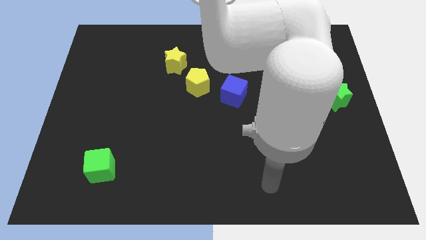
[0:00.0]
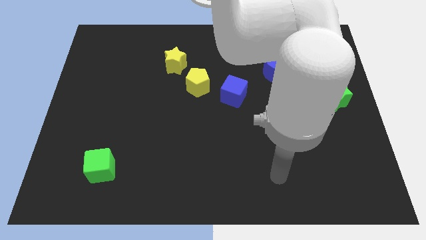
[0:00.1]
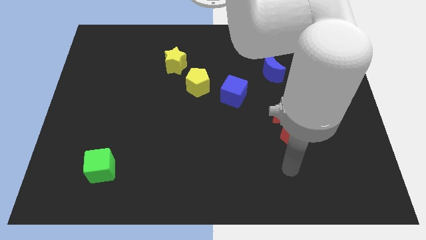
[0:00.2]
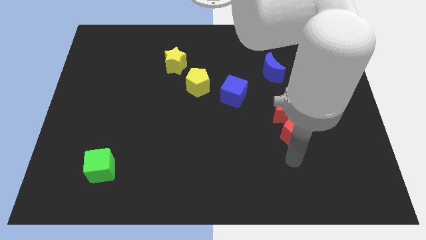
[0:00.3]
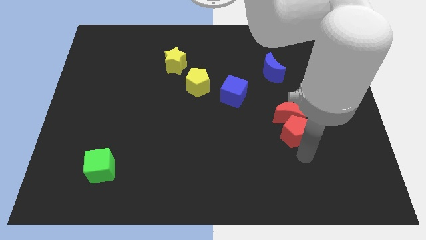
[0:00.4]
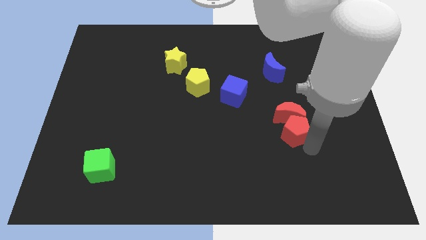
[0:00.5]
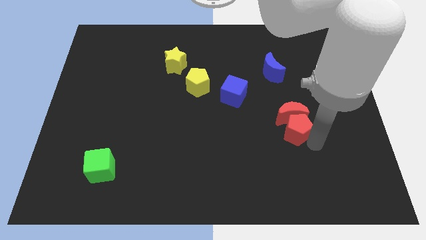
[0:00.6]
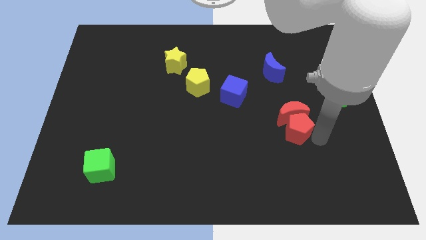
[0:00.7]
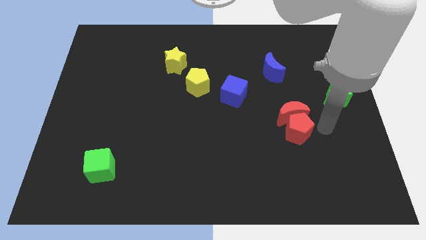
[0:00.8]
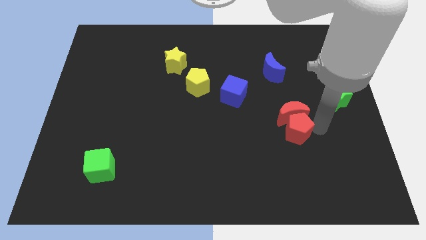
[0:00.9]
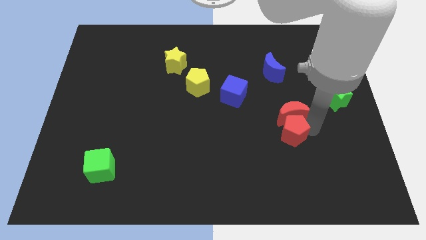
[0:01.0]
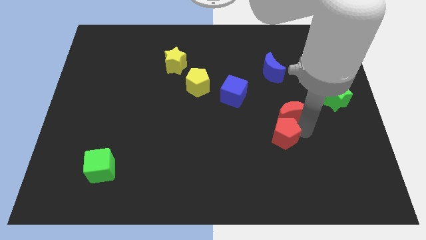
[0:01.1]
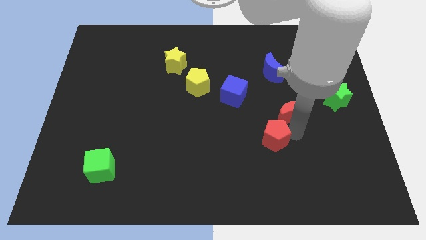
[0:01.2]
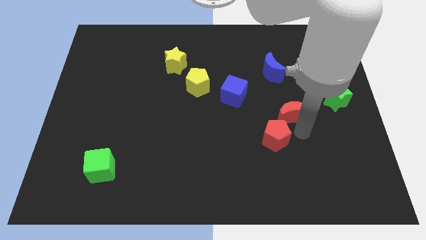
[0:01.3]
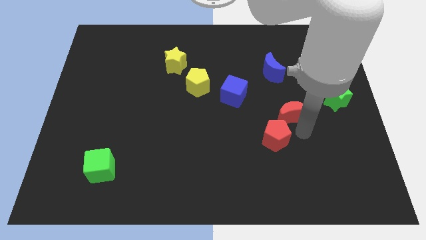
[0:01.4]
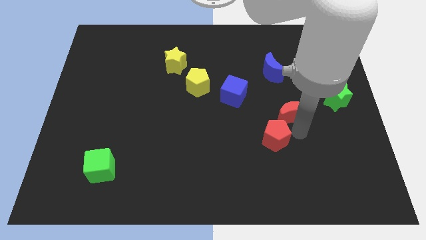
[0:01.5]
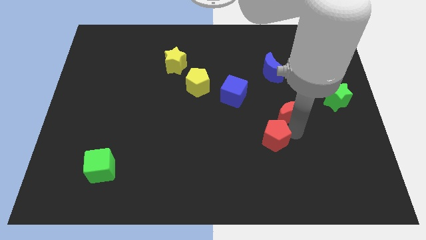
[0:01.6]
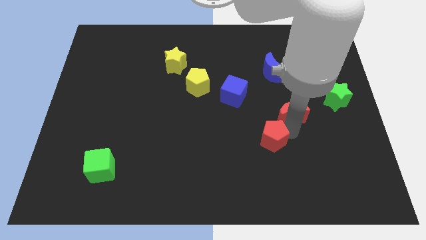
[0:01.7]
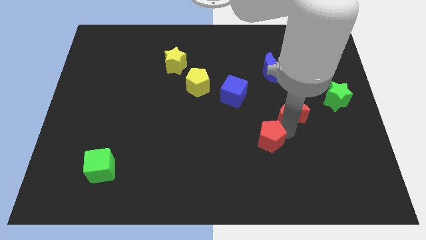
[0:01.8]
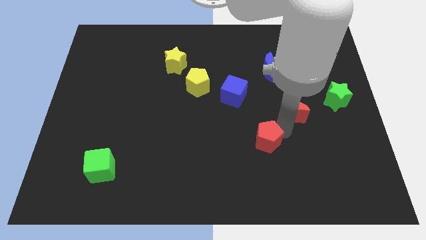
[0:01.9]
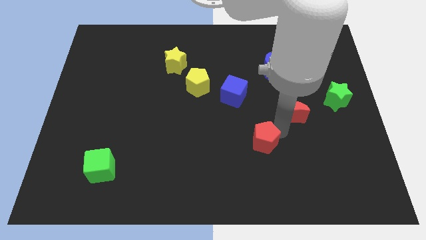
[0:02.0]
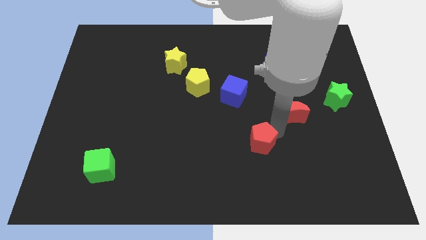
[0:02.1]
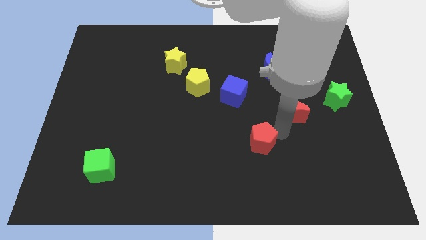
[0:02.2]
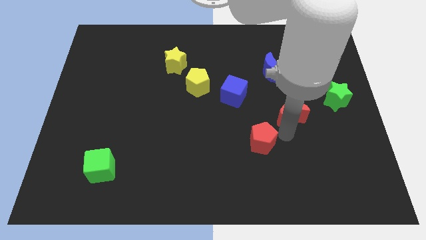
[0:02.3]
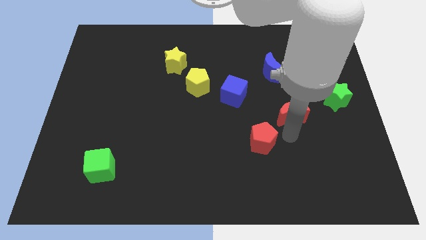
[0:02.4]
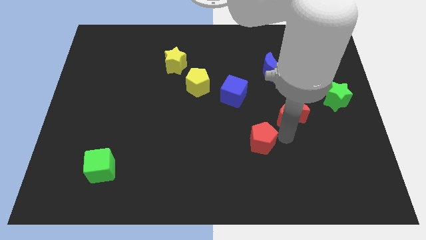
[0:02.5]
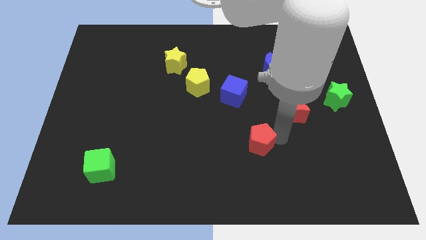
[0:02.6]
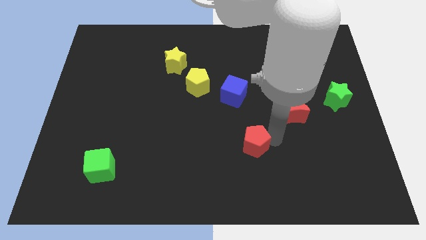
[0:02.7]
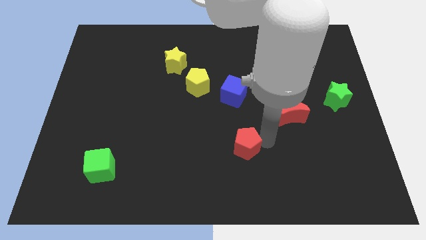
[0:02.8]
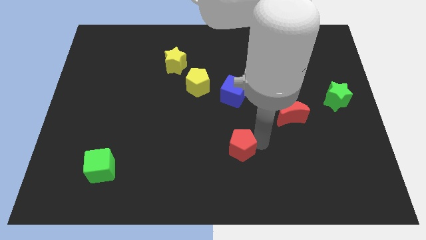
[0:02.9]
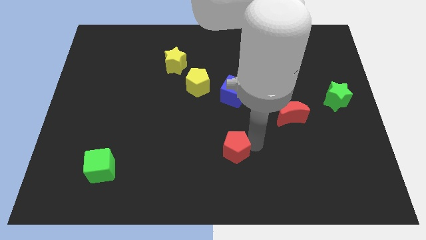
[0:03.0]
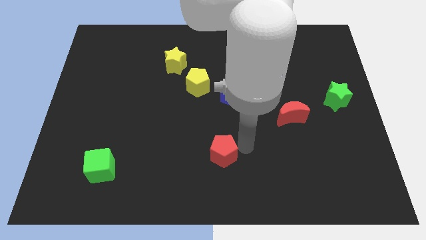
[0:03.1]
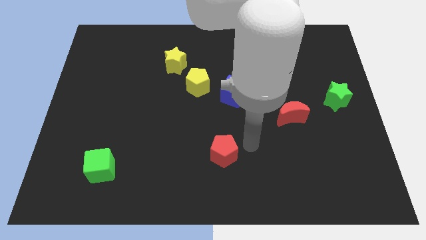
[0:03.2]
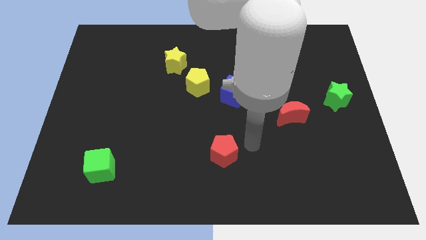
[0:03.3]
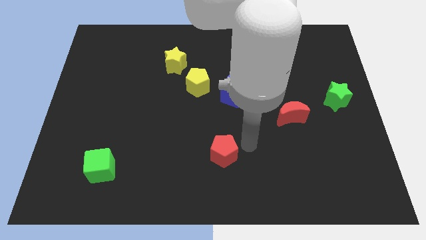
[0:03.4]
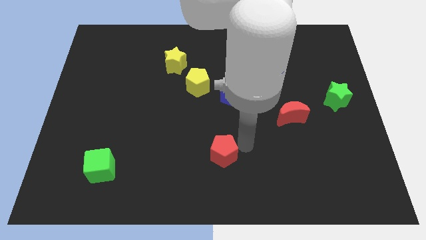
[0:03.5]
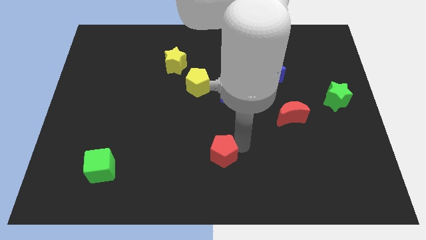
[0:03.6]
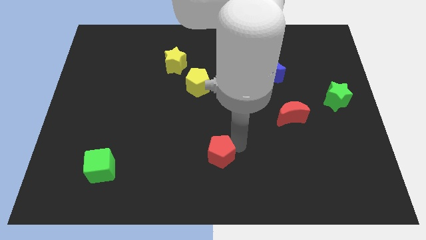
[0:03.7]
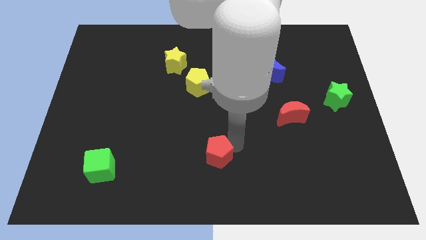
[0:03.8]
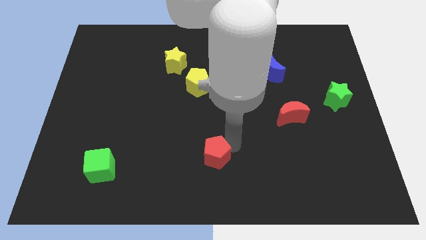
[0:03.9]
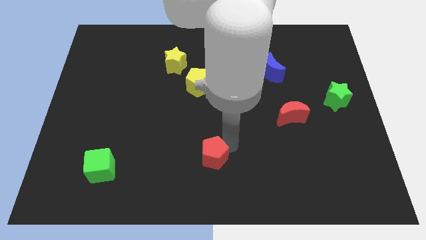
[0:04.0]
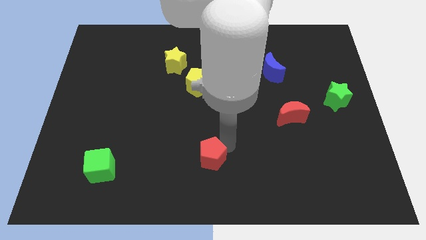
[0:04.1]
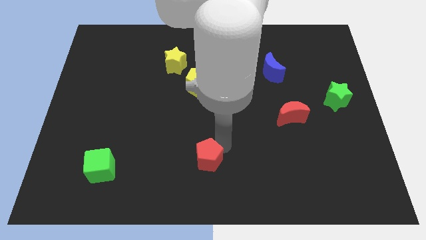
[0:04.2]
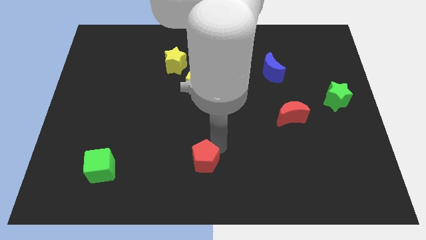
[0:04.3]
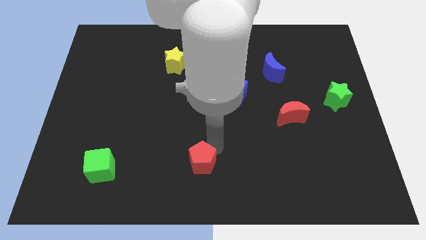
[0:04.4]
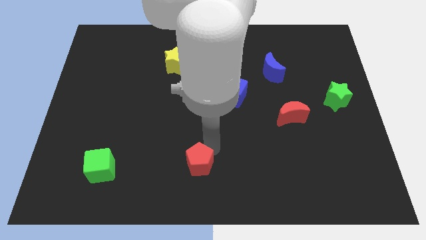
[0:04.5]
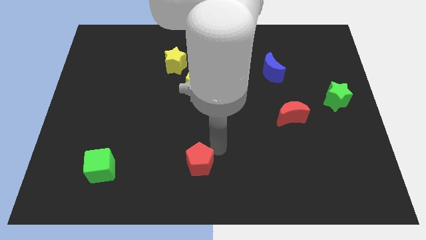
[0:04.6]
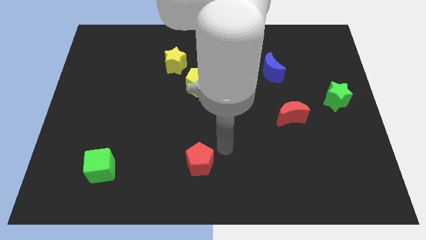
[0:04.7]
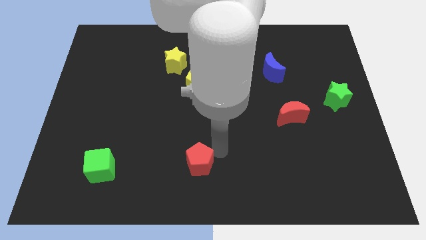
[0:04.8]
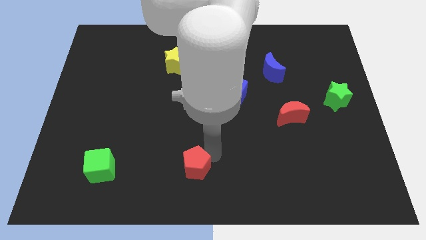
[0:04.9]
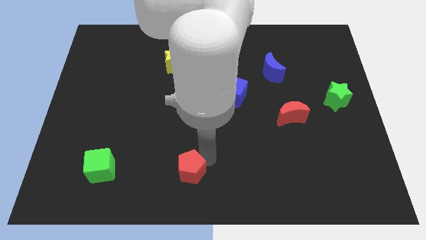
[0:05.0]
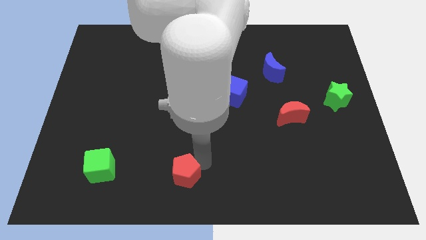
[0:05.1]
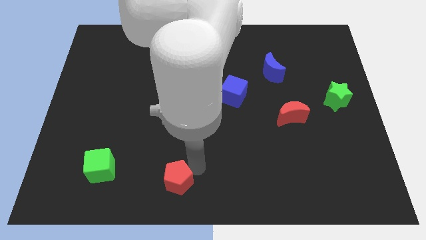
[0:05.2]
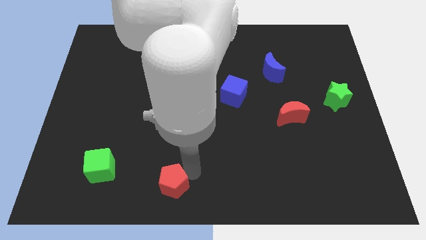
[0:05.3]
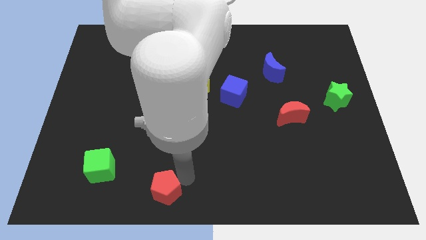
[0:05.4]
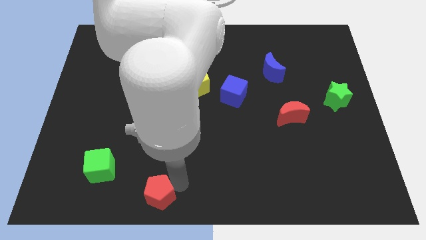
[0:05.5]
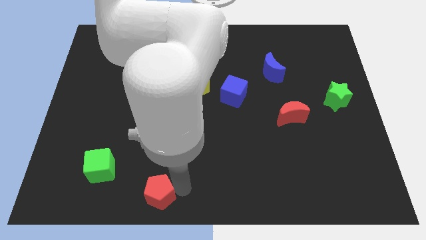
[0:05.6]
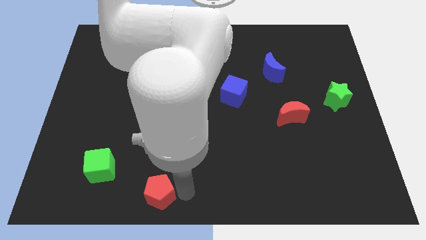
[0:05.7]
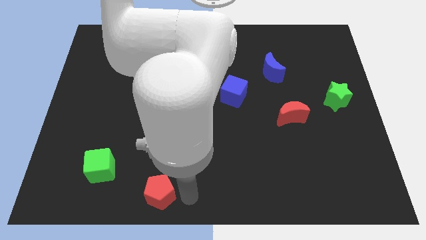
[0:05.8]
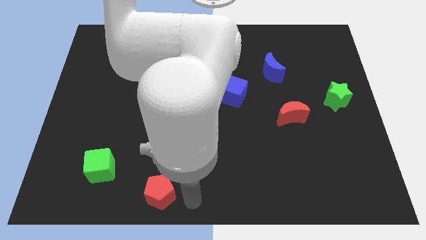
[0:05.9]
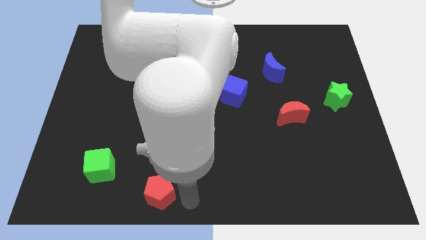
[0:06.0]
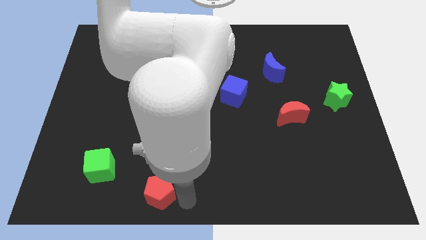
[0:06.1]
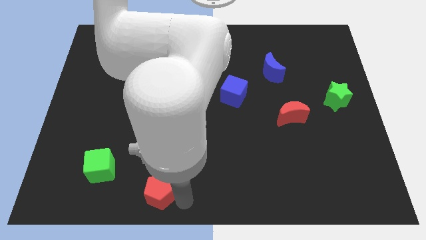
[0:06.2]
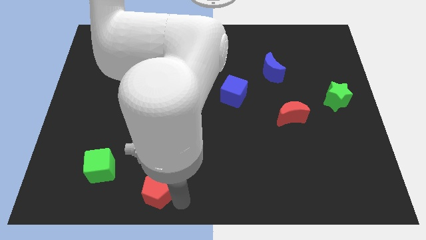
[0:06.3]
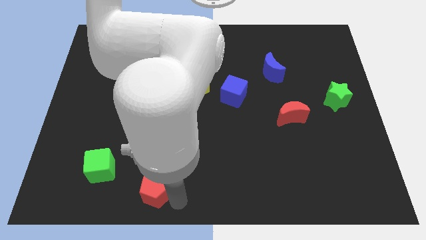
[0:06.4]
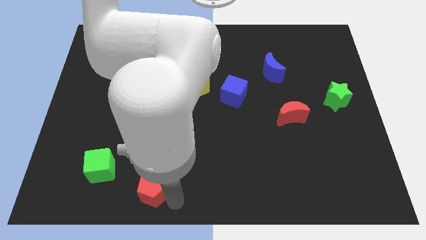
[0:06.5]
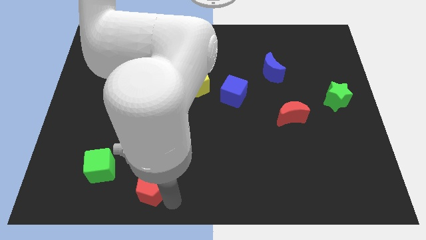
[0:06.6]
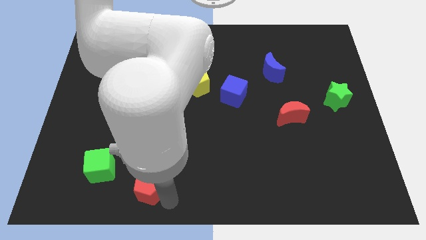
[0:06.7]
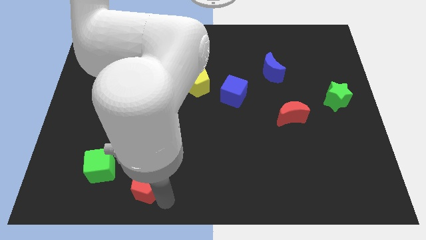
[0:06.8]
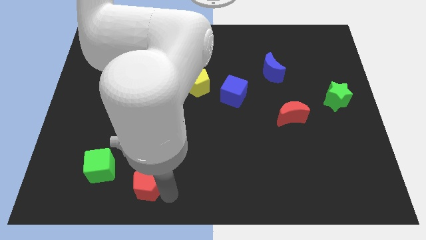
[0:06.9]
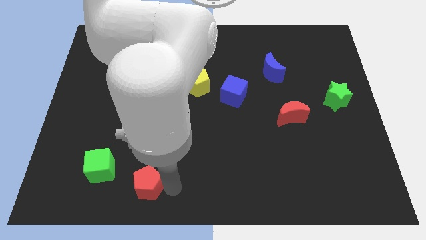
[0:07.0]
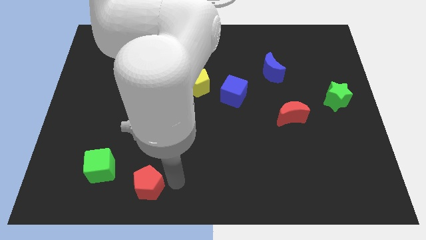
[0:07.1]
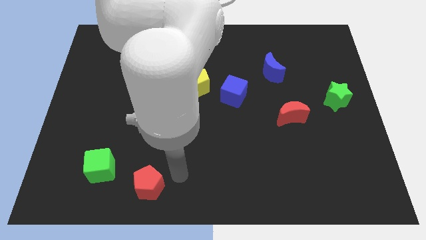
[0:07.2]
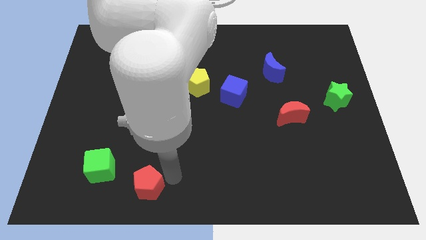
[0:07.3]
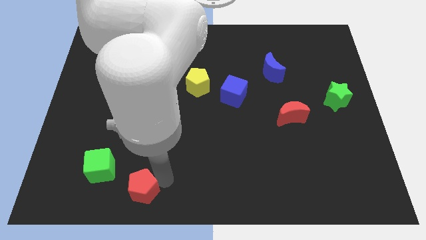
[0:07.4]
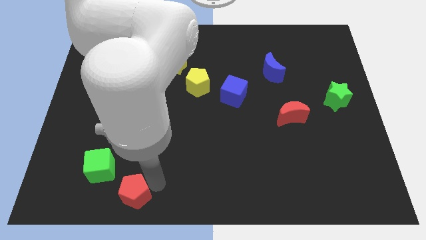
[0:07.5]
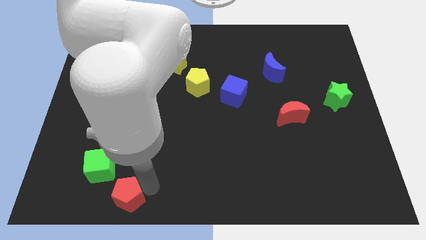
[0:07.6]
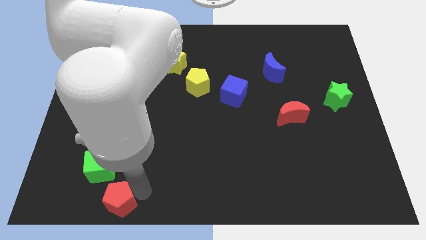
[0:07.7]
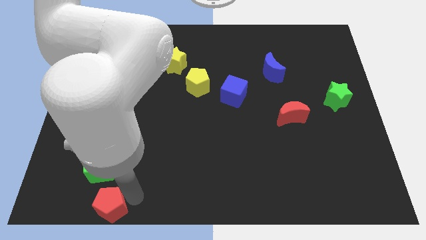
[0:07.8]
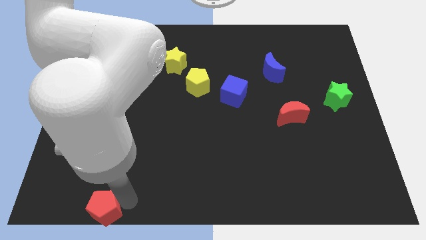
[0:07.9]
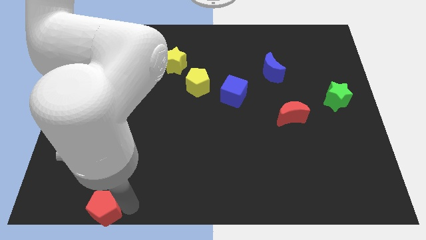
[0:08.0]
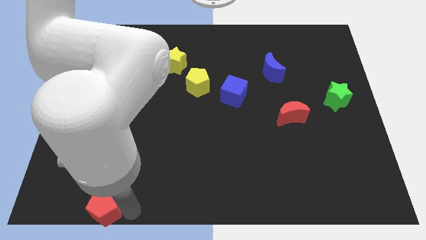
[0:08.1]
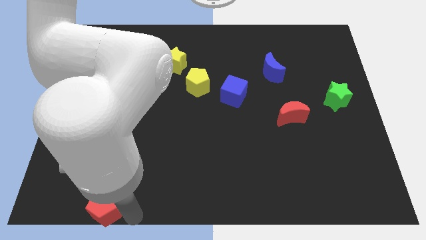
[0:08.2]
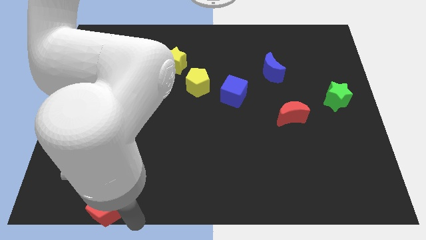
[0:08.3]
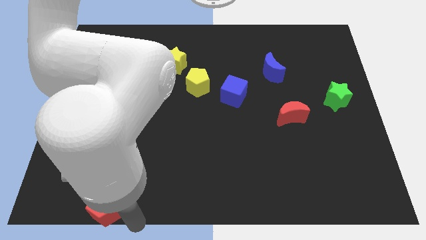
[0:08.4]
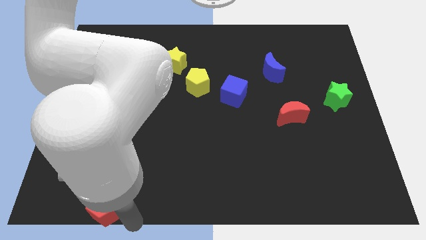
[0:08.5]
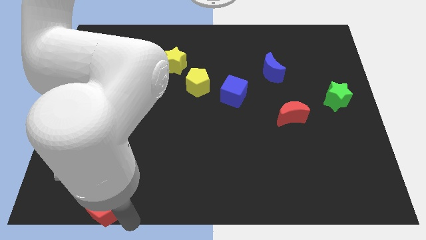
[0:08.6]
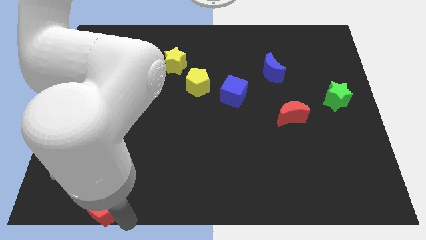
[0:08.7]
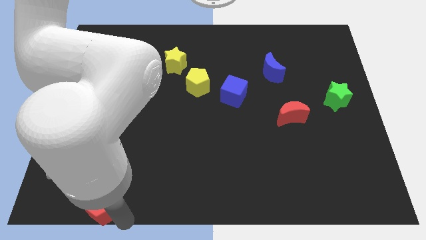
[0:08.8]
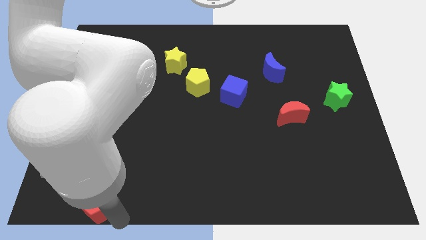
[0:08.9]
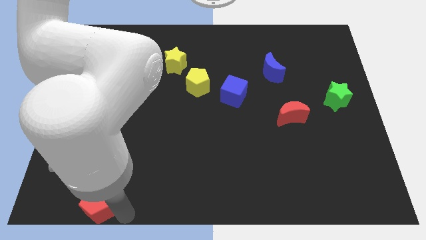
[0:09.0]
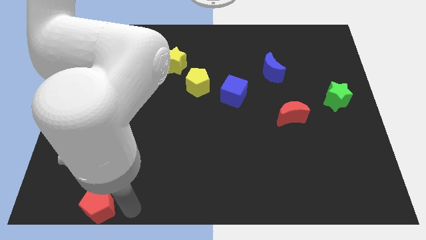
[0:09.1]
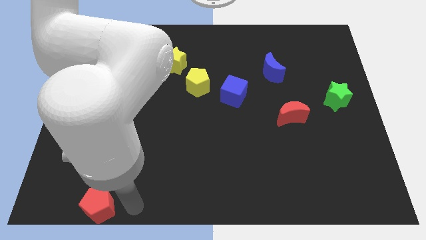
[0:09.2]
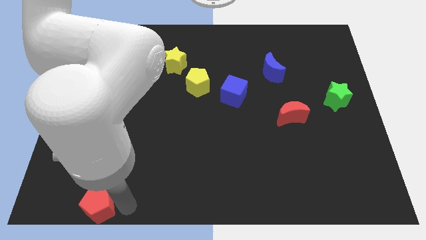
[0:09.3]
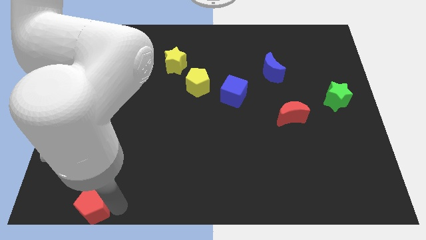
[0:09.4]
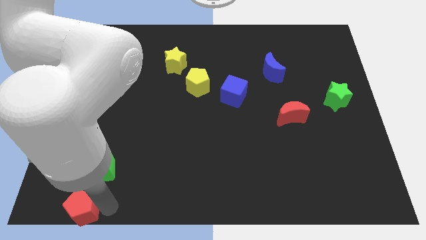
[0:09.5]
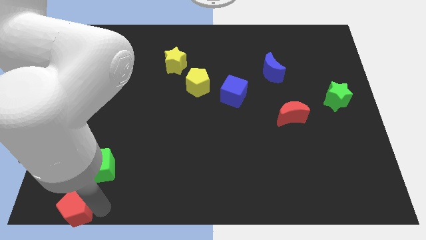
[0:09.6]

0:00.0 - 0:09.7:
move the red pentagon to the lower left corner
